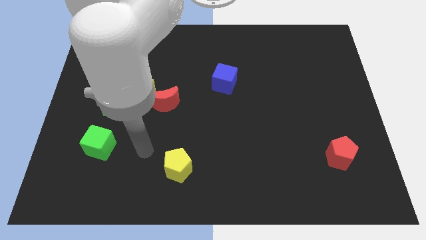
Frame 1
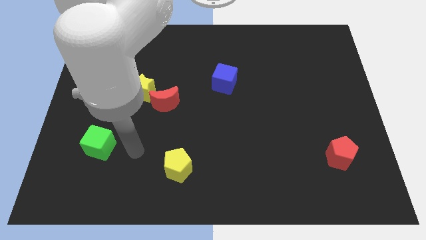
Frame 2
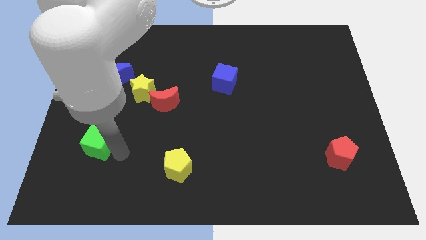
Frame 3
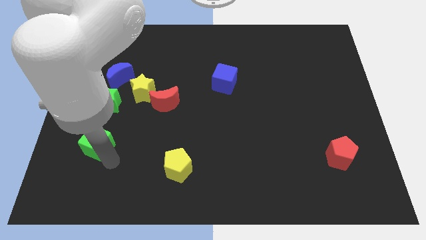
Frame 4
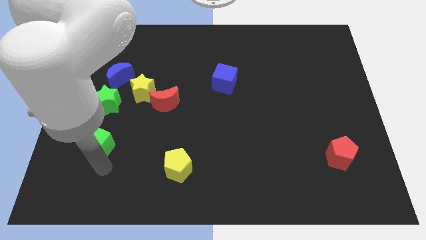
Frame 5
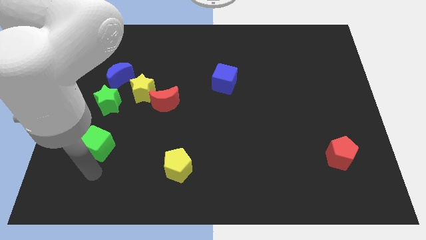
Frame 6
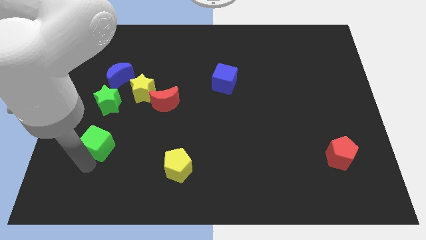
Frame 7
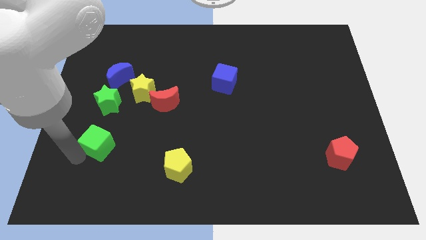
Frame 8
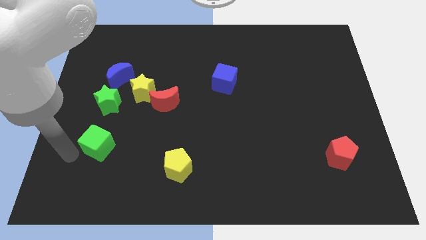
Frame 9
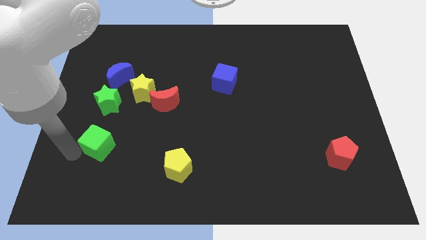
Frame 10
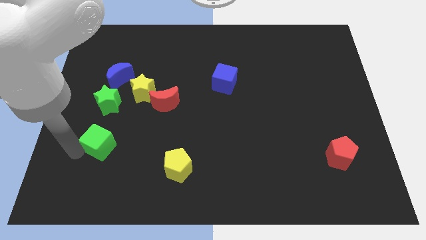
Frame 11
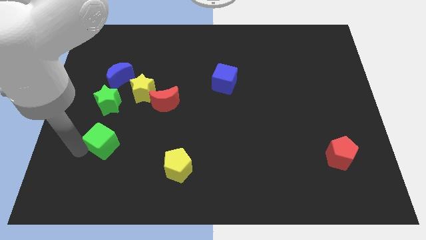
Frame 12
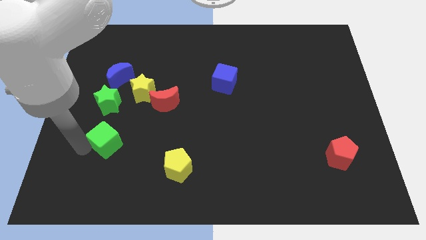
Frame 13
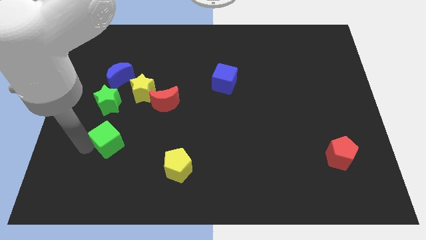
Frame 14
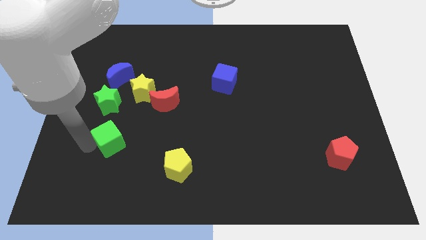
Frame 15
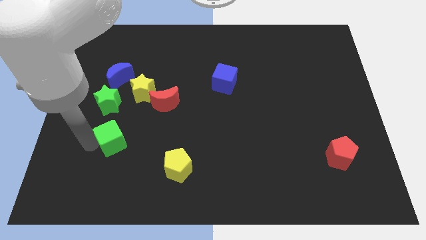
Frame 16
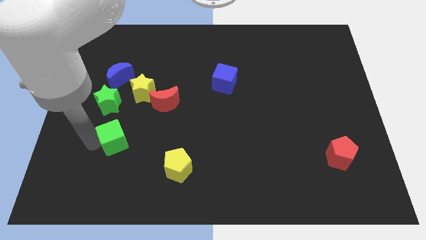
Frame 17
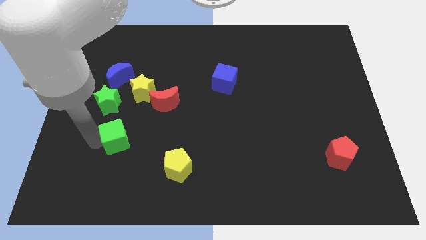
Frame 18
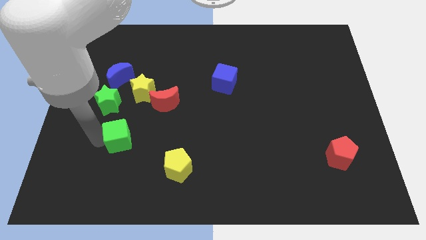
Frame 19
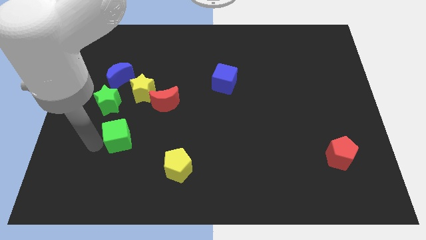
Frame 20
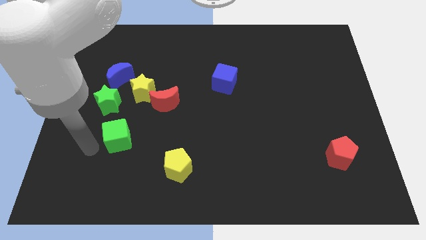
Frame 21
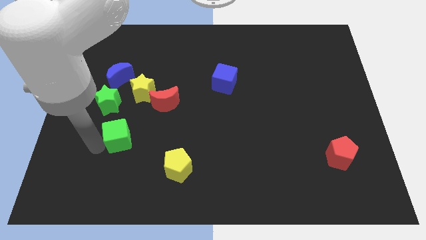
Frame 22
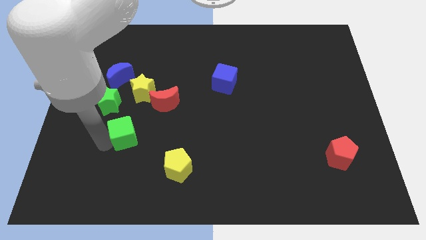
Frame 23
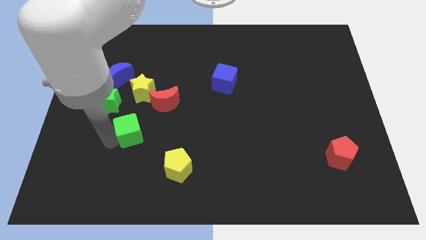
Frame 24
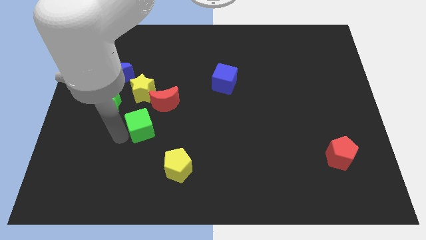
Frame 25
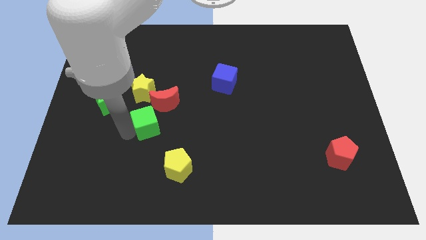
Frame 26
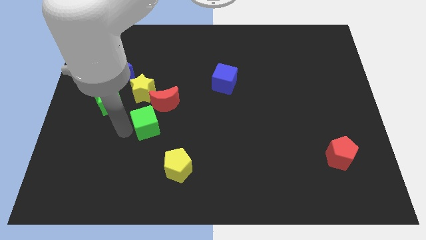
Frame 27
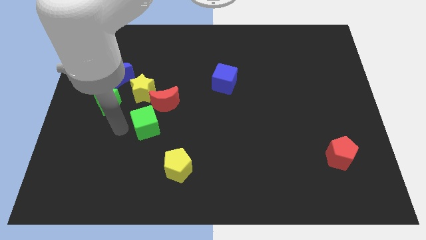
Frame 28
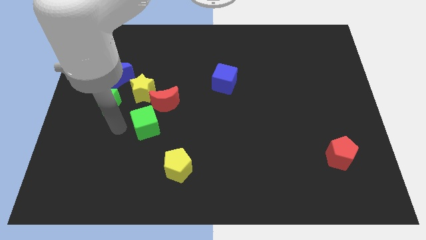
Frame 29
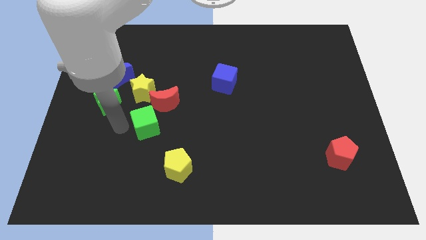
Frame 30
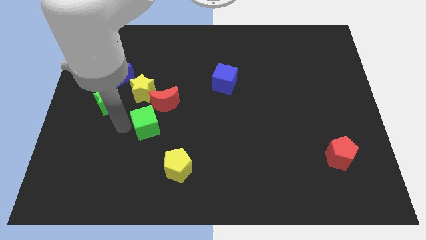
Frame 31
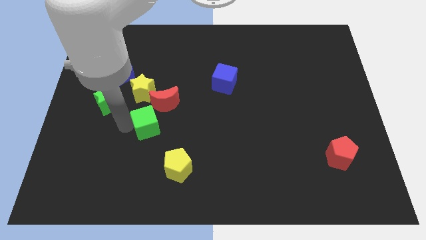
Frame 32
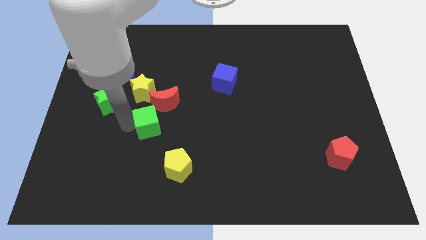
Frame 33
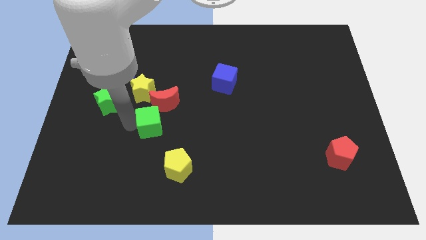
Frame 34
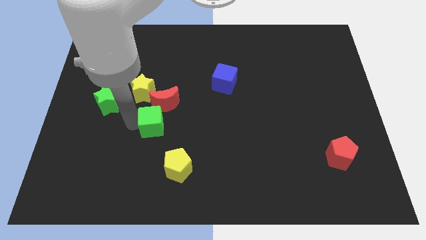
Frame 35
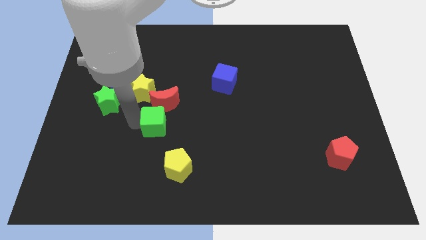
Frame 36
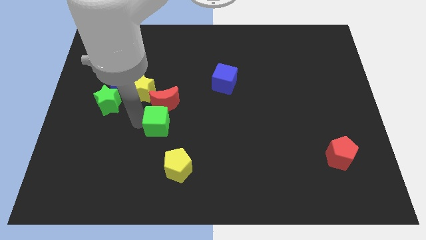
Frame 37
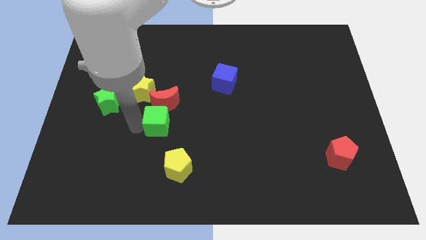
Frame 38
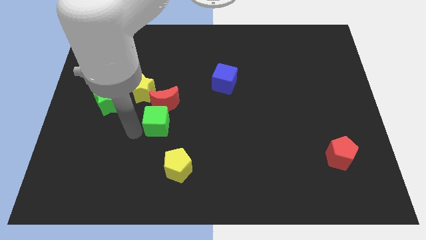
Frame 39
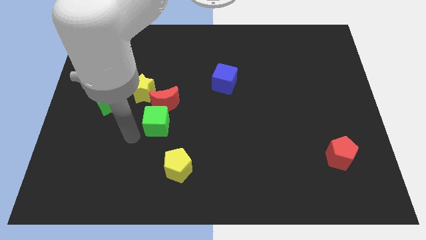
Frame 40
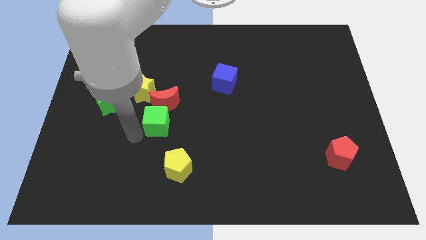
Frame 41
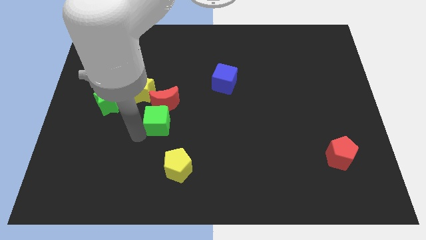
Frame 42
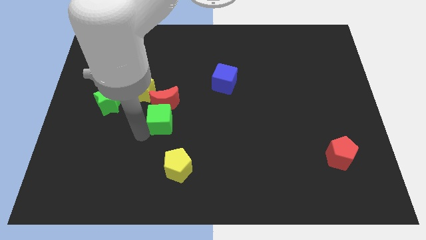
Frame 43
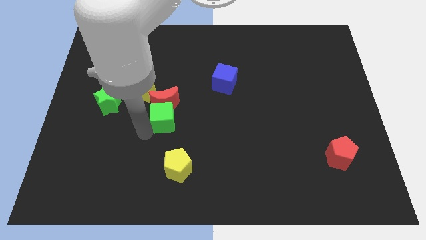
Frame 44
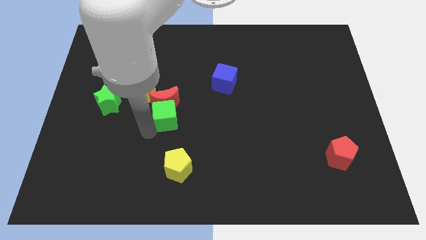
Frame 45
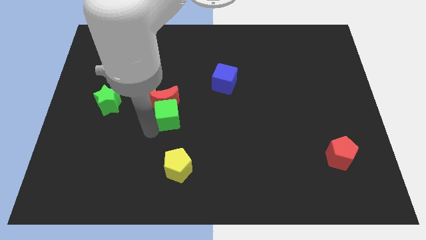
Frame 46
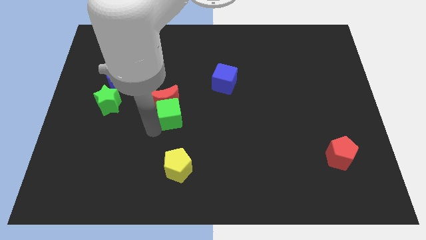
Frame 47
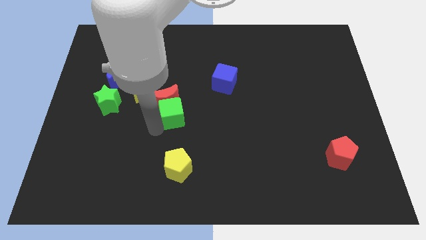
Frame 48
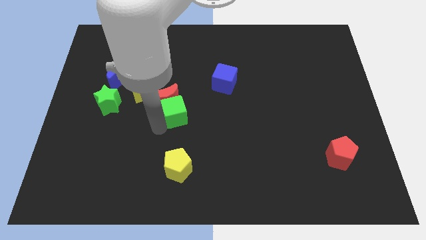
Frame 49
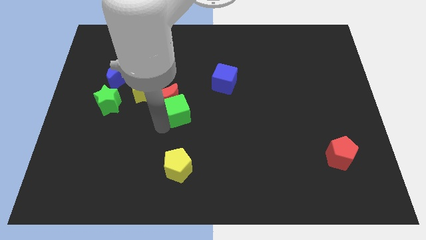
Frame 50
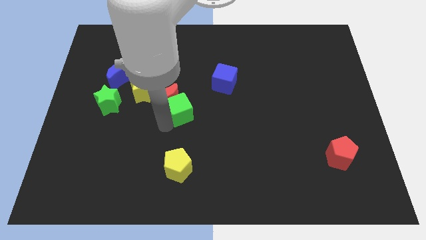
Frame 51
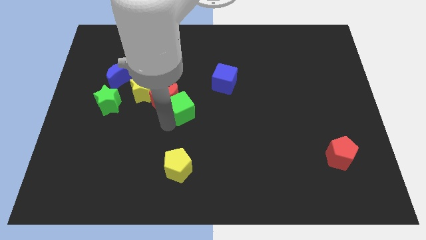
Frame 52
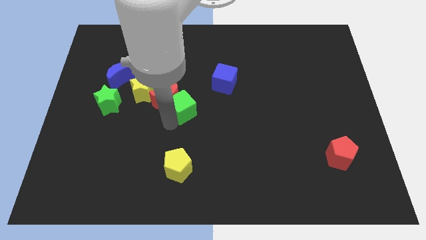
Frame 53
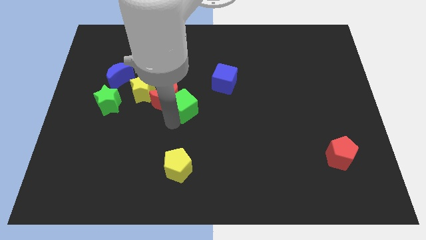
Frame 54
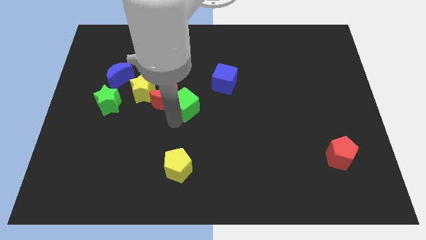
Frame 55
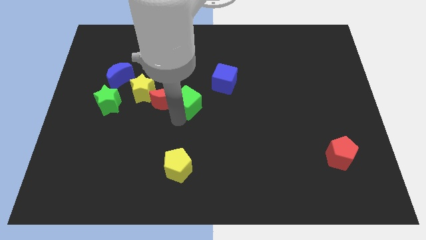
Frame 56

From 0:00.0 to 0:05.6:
push the green cube diagonally up and right

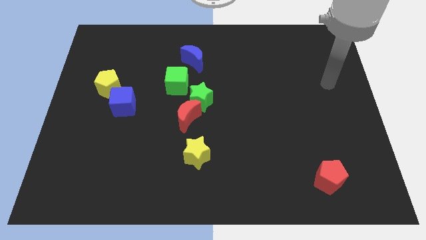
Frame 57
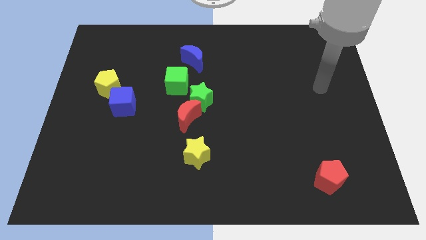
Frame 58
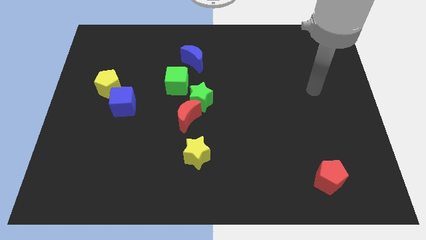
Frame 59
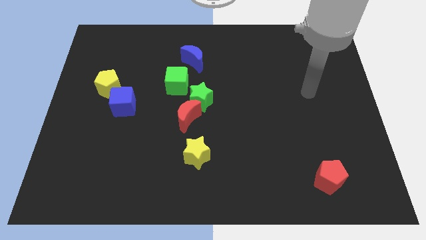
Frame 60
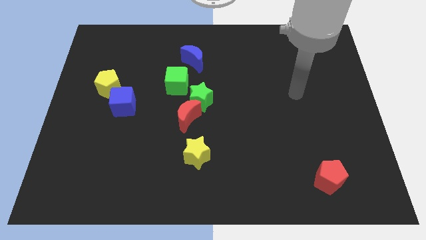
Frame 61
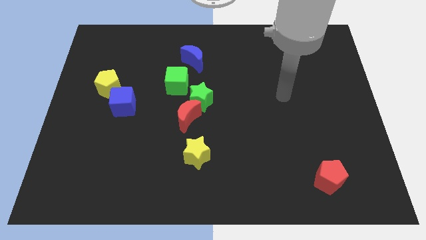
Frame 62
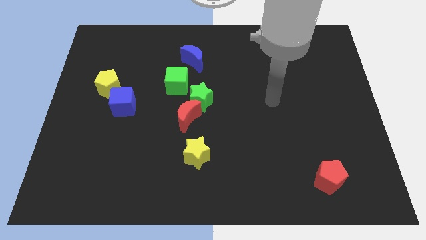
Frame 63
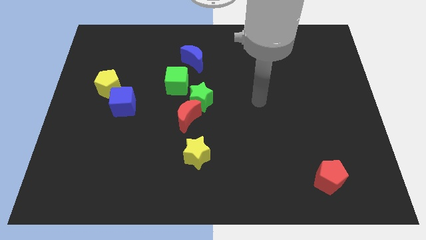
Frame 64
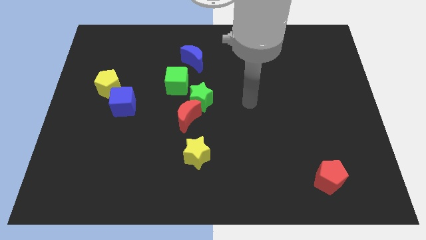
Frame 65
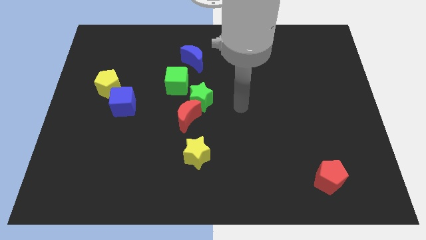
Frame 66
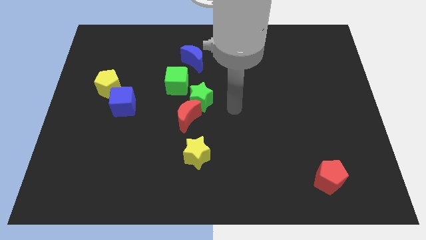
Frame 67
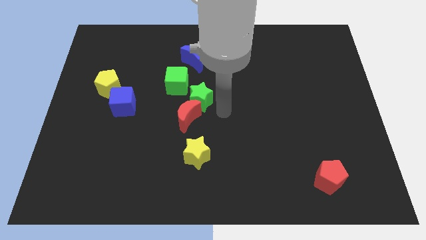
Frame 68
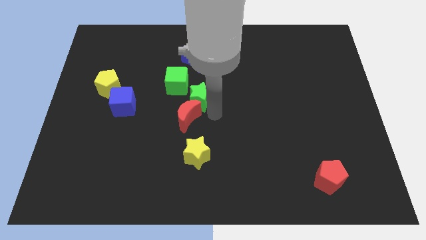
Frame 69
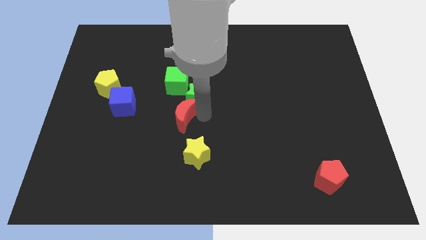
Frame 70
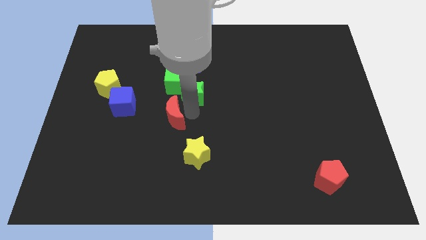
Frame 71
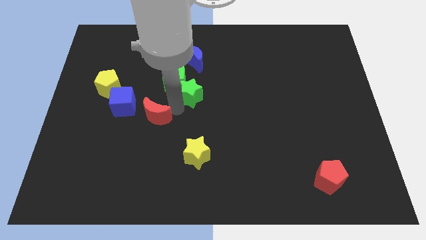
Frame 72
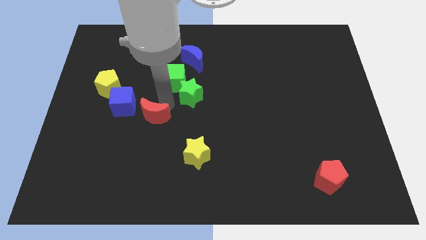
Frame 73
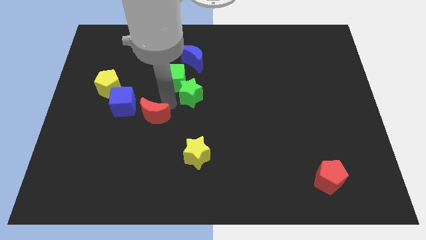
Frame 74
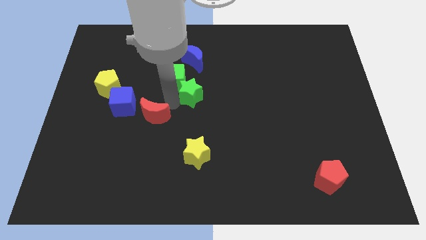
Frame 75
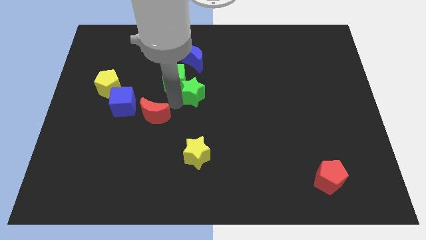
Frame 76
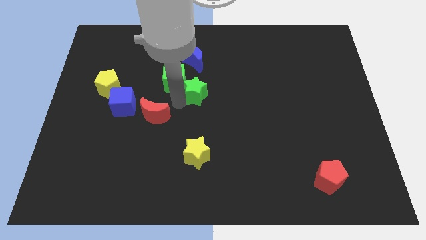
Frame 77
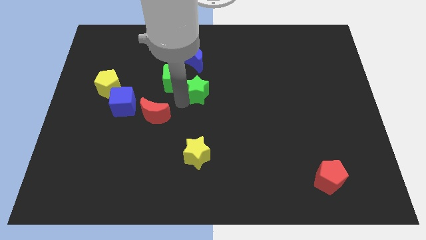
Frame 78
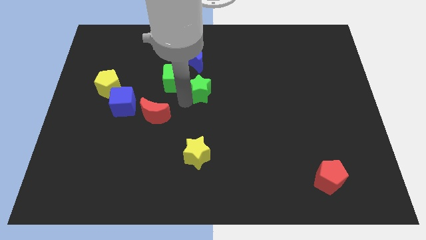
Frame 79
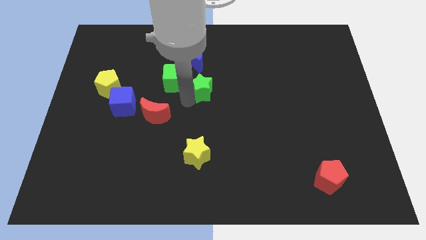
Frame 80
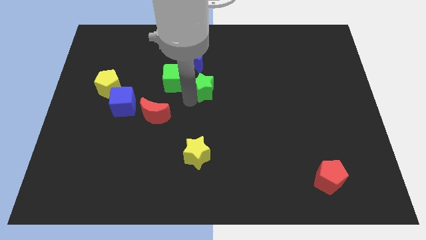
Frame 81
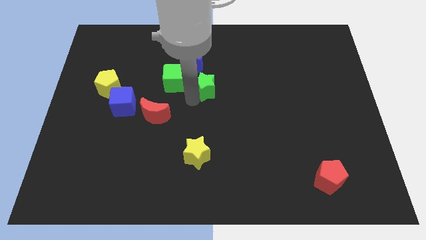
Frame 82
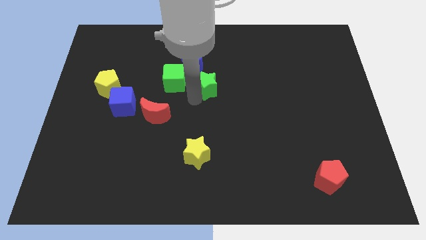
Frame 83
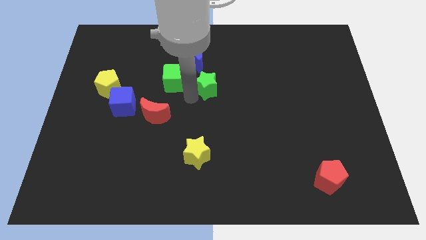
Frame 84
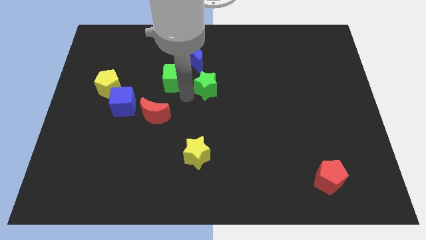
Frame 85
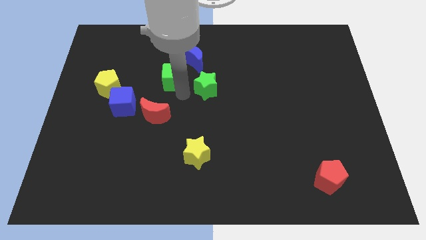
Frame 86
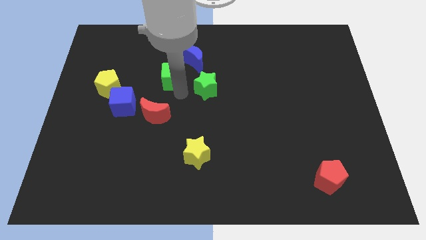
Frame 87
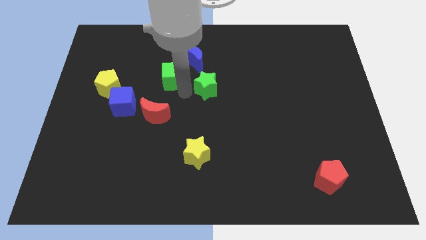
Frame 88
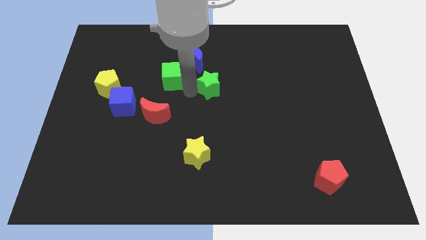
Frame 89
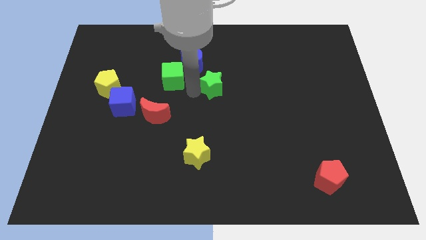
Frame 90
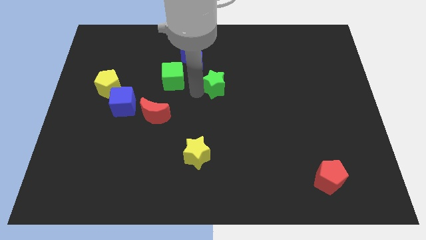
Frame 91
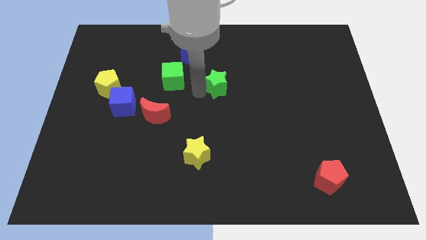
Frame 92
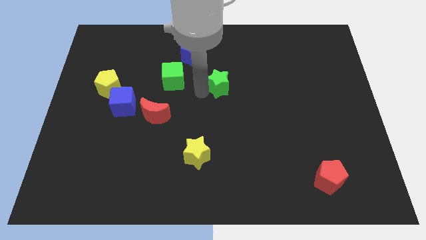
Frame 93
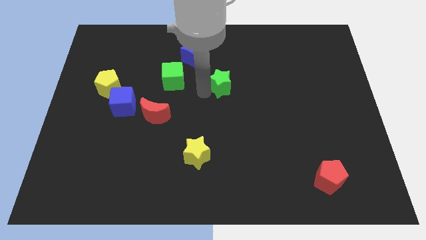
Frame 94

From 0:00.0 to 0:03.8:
push the green star a little up and right
